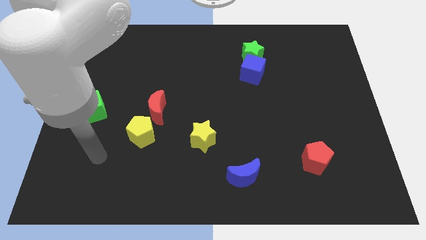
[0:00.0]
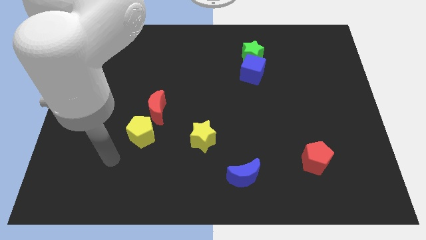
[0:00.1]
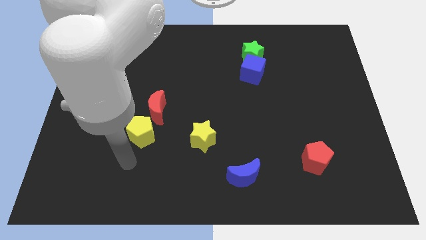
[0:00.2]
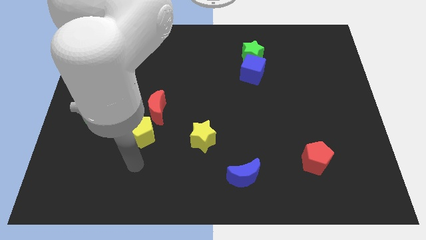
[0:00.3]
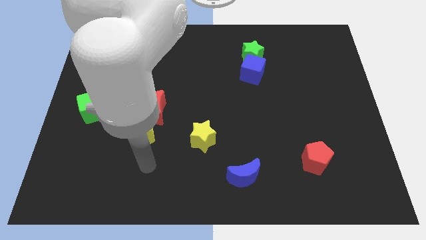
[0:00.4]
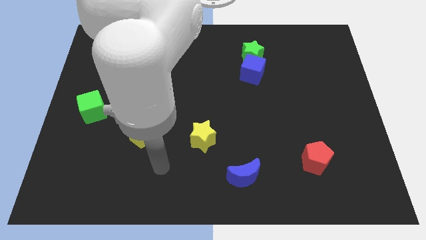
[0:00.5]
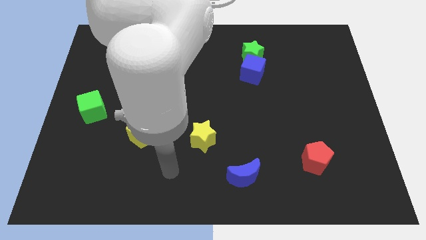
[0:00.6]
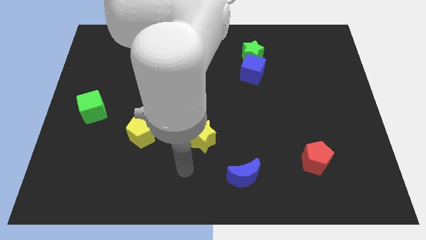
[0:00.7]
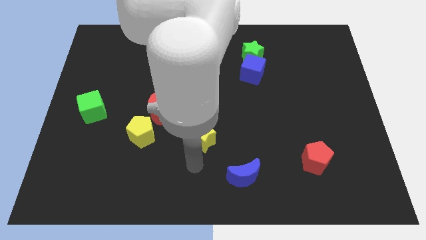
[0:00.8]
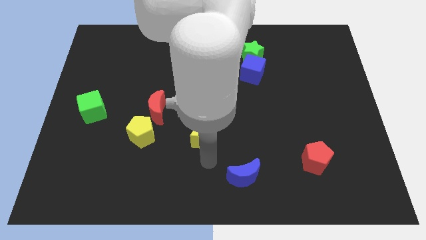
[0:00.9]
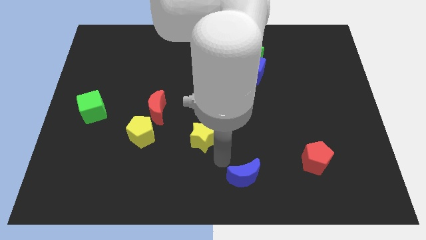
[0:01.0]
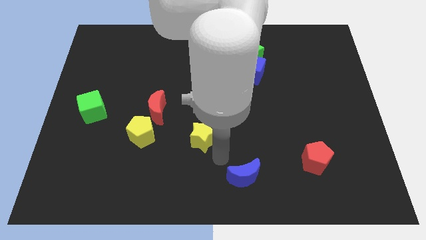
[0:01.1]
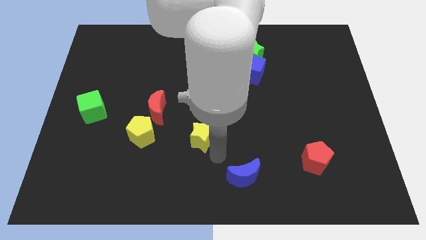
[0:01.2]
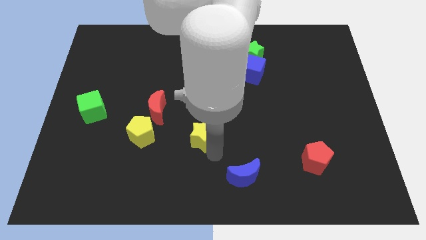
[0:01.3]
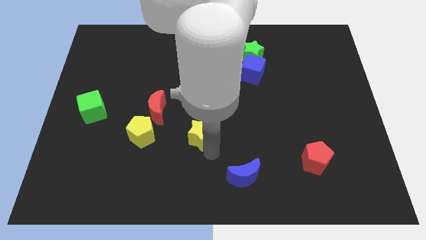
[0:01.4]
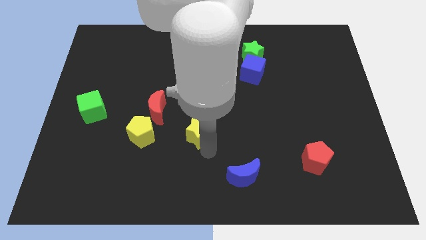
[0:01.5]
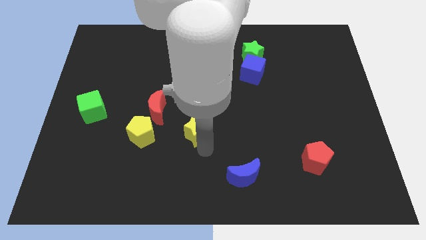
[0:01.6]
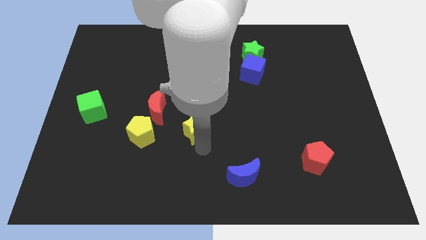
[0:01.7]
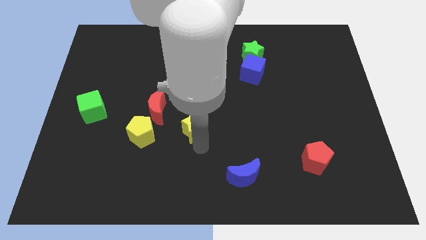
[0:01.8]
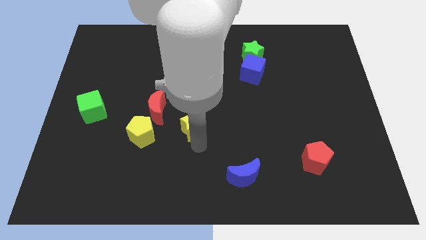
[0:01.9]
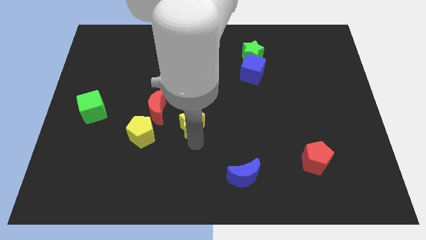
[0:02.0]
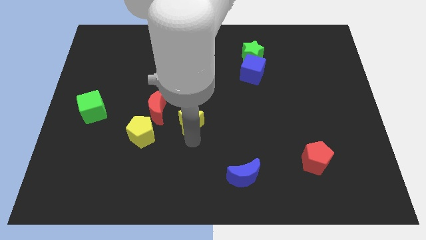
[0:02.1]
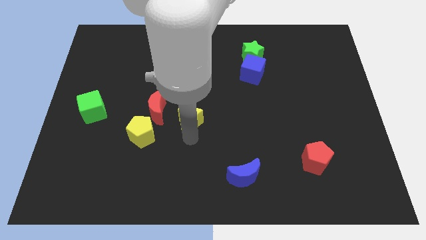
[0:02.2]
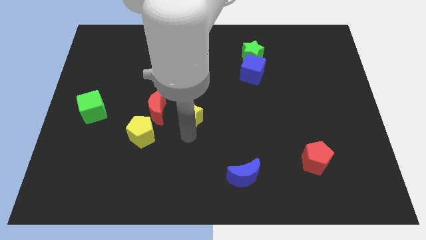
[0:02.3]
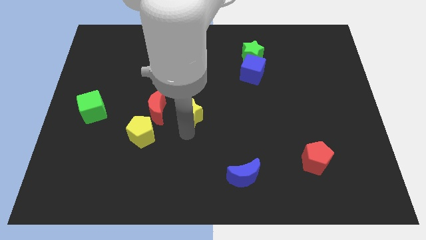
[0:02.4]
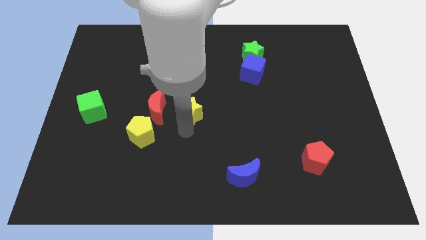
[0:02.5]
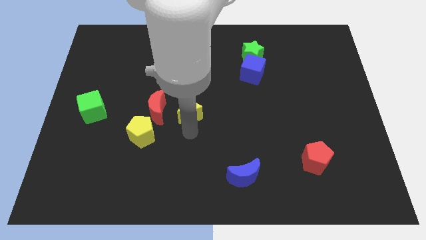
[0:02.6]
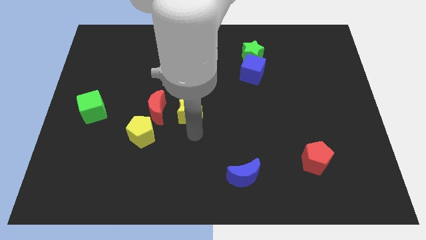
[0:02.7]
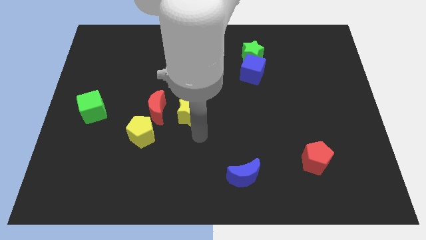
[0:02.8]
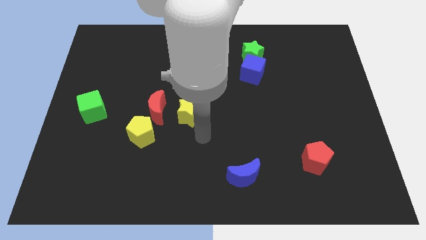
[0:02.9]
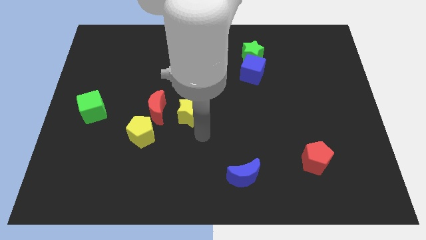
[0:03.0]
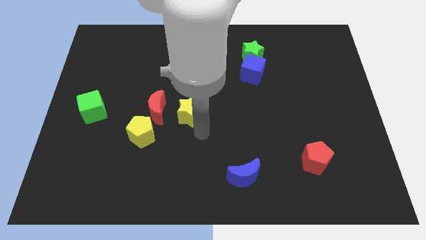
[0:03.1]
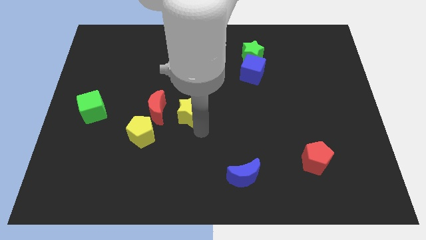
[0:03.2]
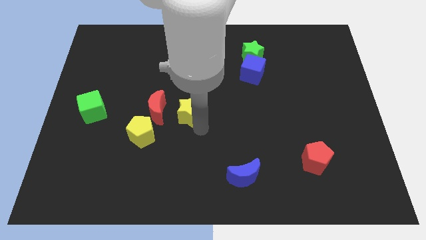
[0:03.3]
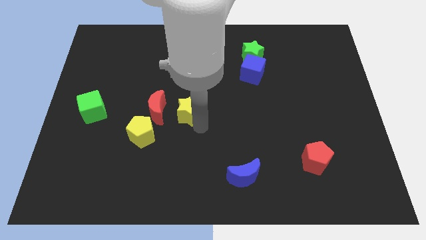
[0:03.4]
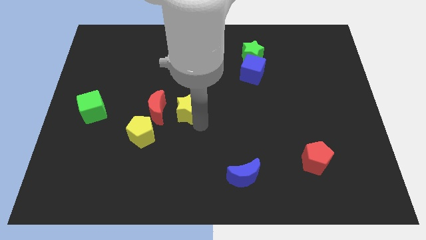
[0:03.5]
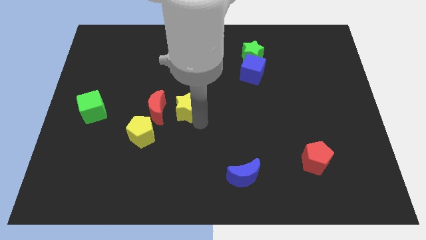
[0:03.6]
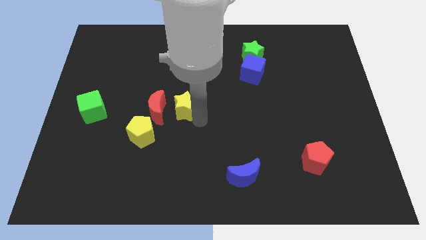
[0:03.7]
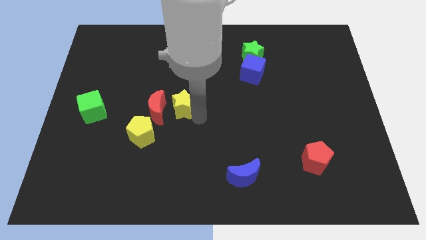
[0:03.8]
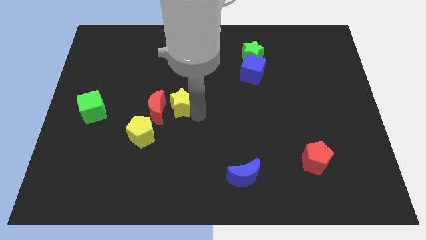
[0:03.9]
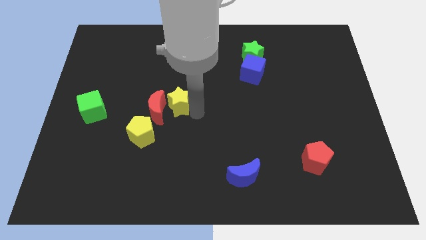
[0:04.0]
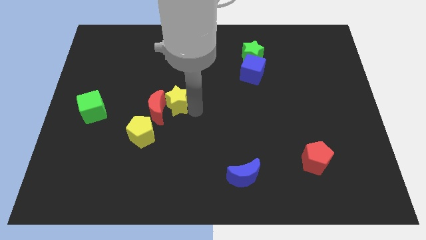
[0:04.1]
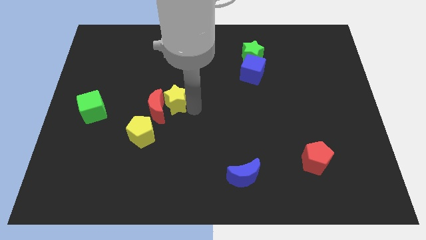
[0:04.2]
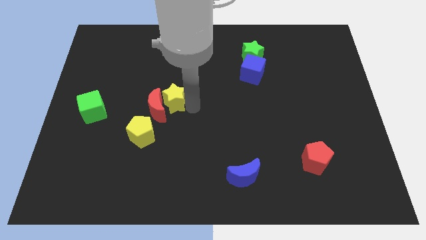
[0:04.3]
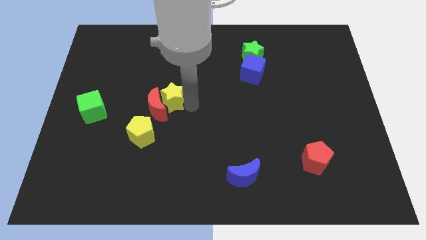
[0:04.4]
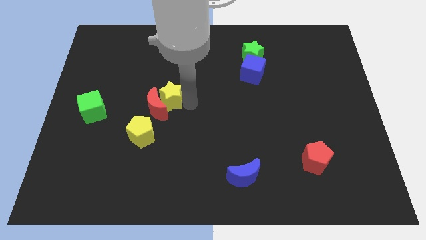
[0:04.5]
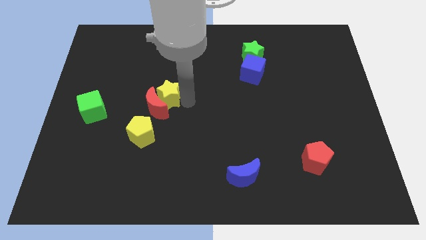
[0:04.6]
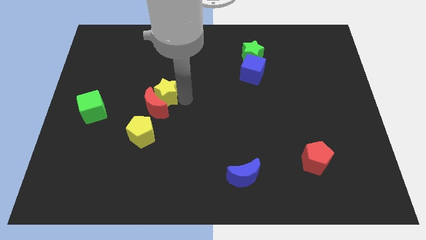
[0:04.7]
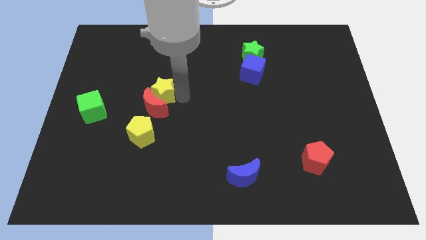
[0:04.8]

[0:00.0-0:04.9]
put the yellow star diagonally up and to the left of the red moon

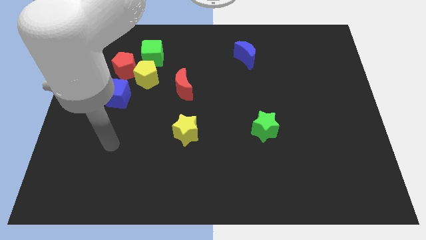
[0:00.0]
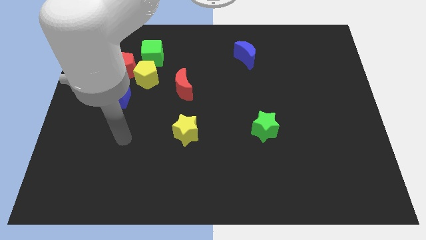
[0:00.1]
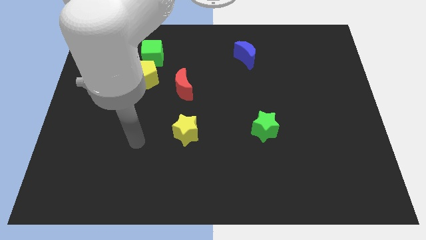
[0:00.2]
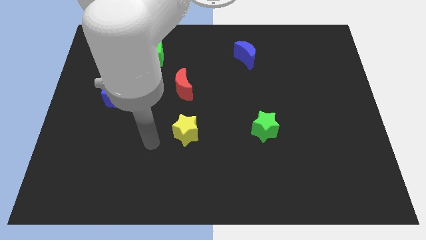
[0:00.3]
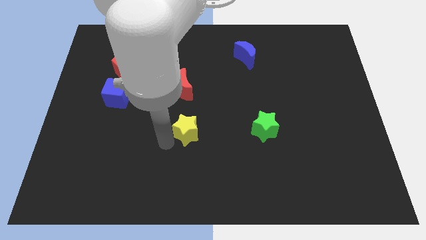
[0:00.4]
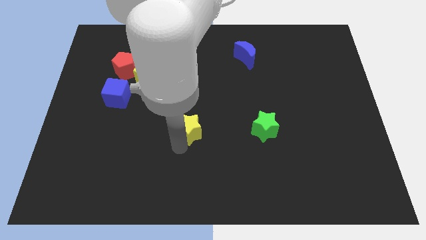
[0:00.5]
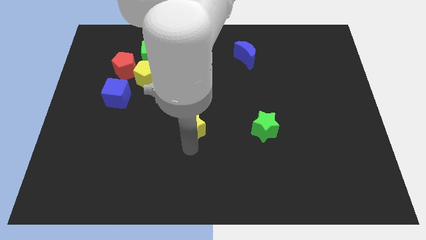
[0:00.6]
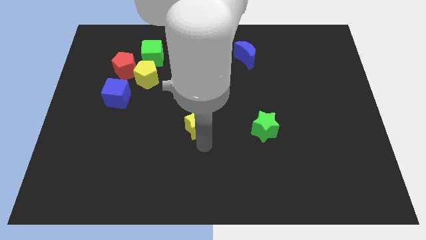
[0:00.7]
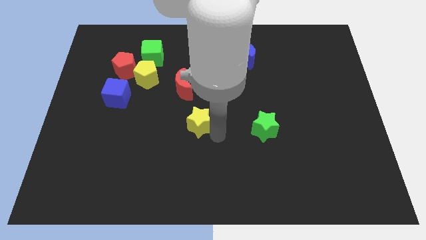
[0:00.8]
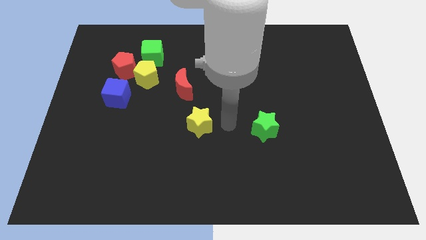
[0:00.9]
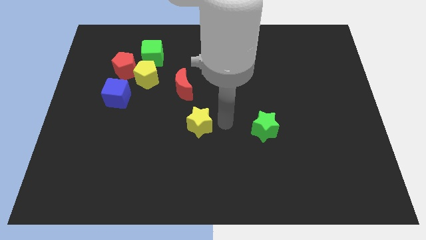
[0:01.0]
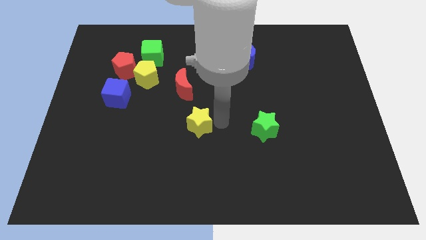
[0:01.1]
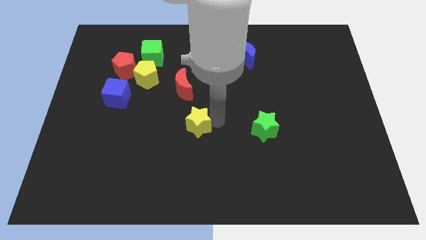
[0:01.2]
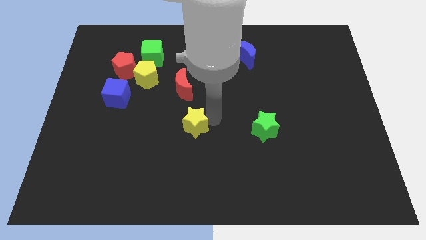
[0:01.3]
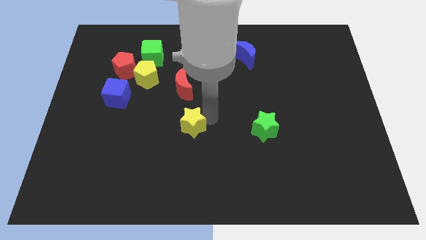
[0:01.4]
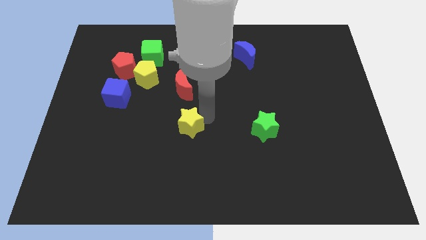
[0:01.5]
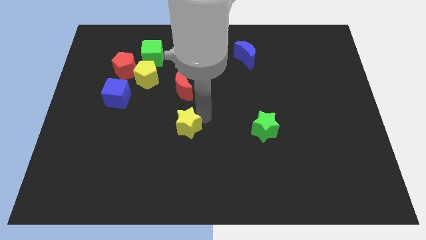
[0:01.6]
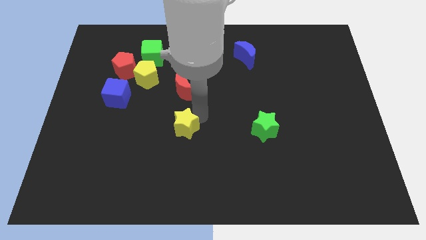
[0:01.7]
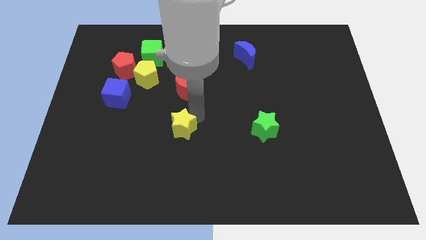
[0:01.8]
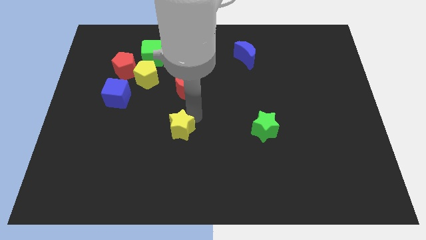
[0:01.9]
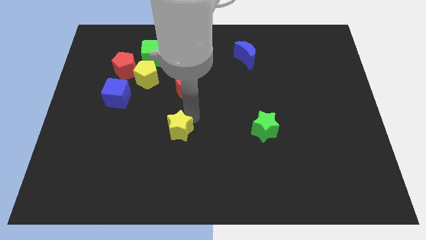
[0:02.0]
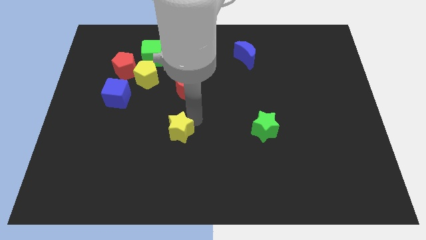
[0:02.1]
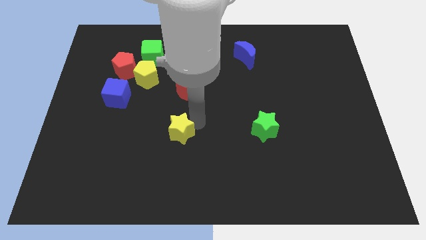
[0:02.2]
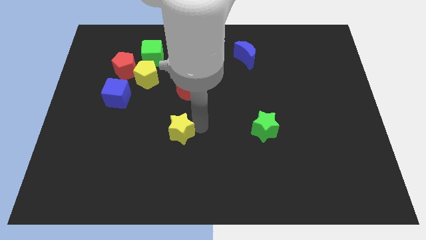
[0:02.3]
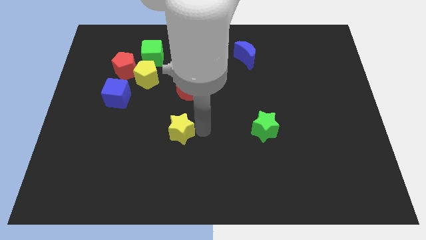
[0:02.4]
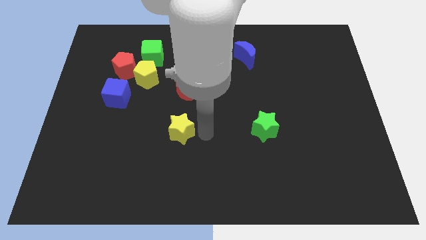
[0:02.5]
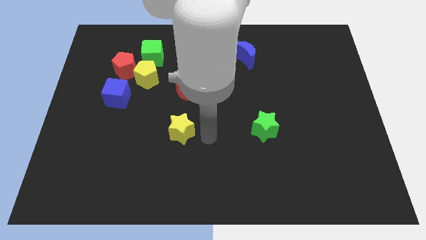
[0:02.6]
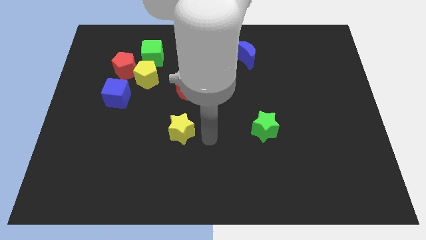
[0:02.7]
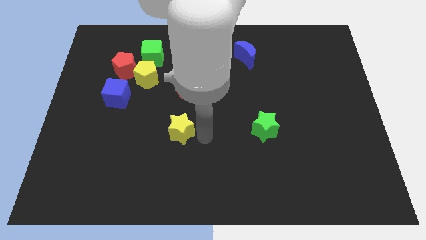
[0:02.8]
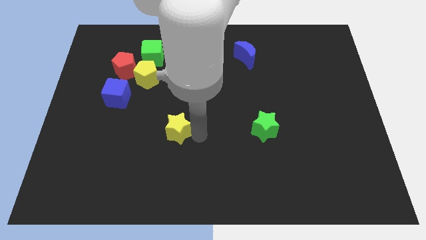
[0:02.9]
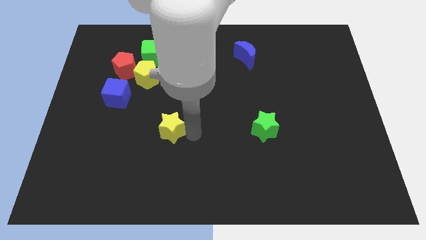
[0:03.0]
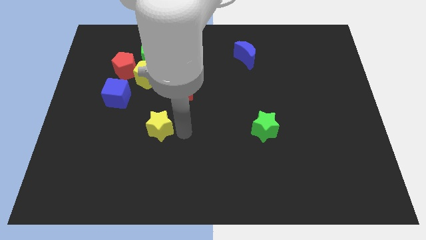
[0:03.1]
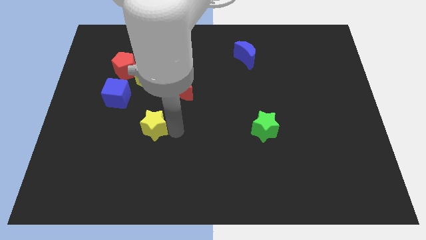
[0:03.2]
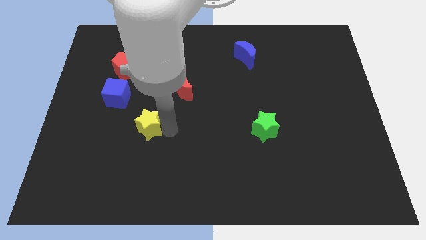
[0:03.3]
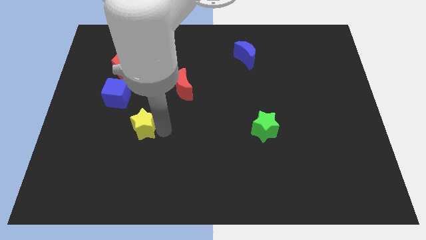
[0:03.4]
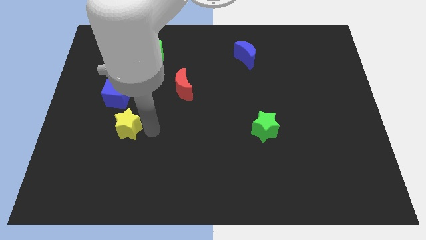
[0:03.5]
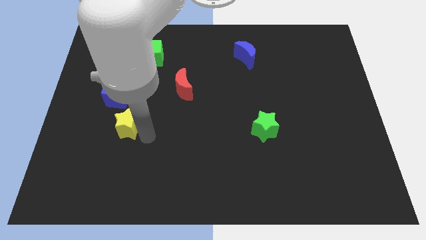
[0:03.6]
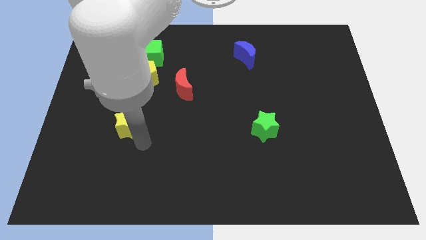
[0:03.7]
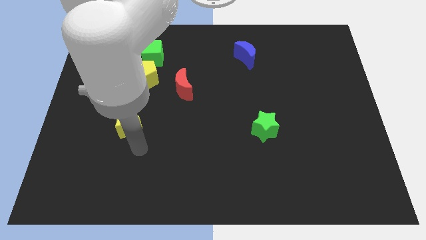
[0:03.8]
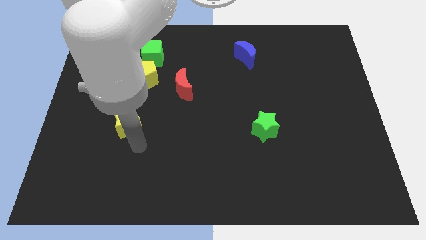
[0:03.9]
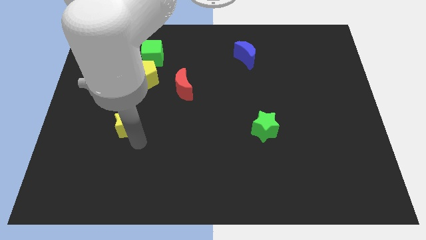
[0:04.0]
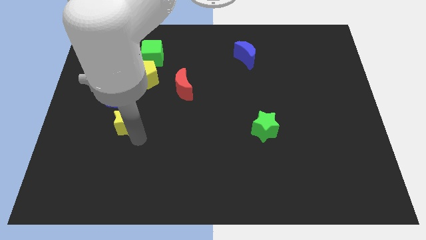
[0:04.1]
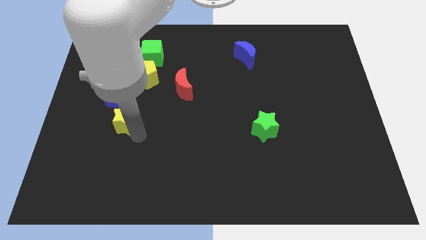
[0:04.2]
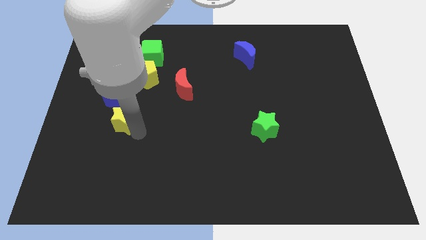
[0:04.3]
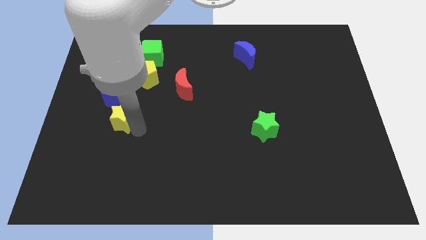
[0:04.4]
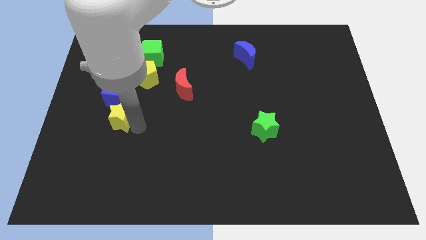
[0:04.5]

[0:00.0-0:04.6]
move the yellow star to the bottom of the red pentagon
